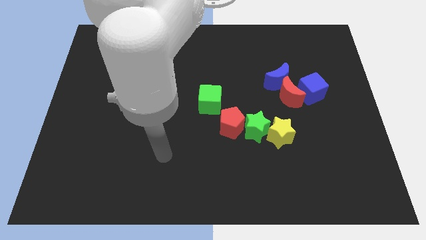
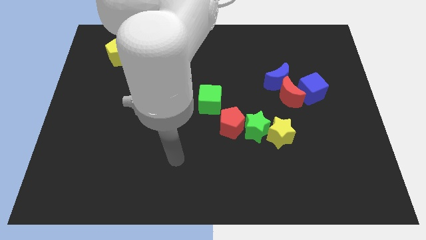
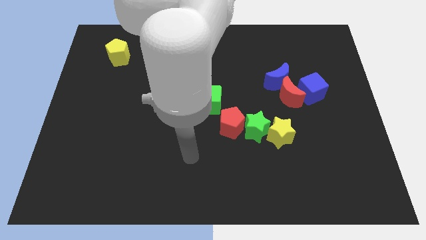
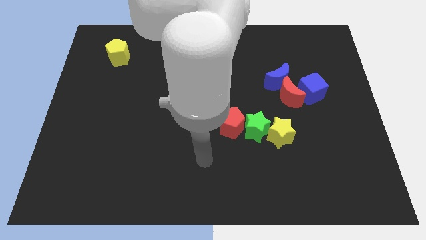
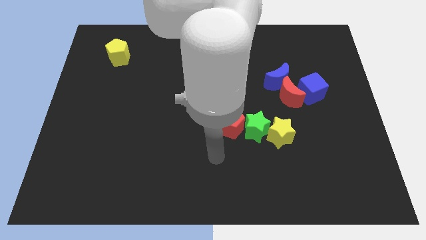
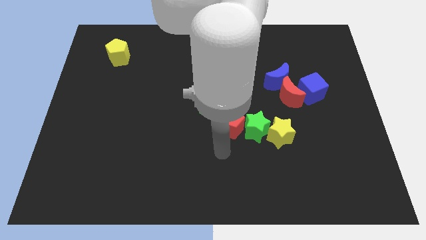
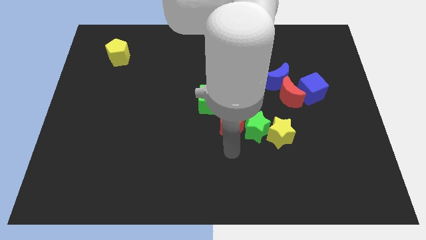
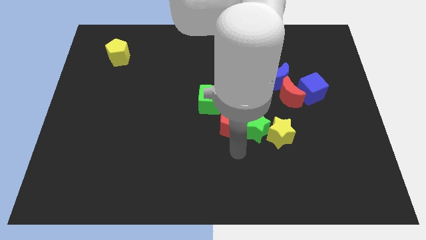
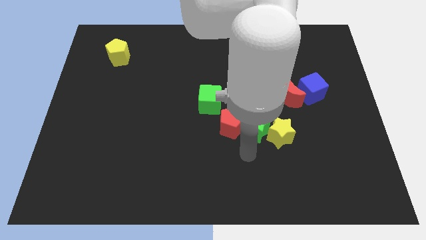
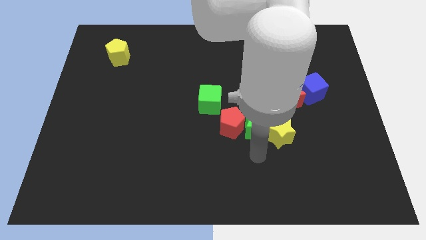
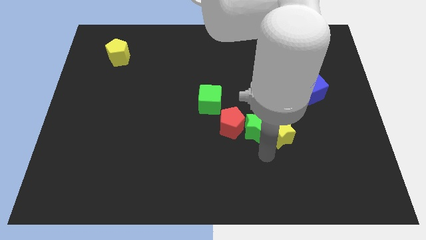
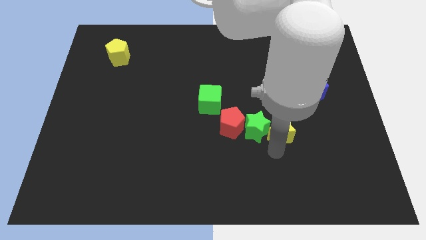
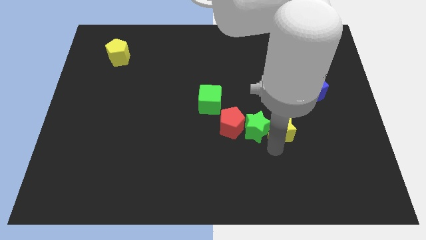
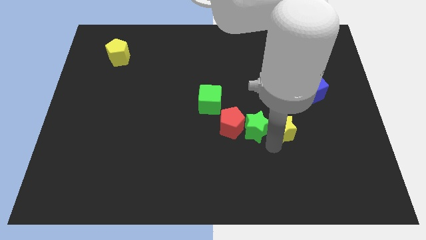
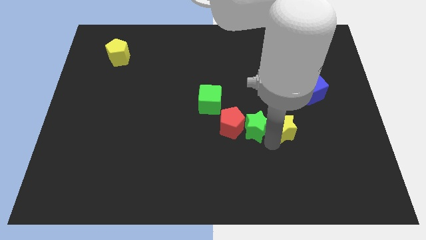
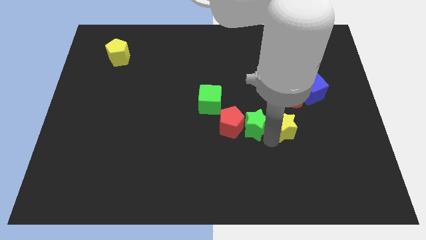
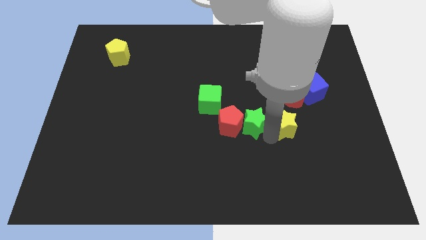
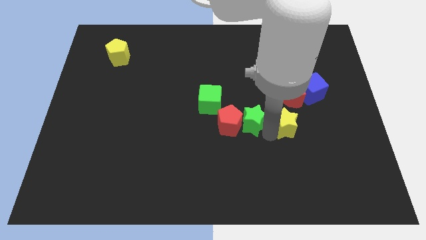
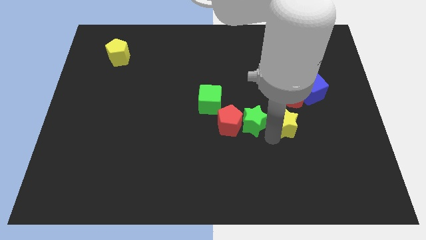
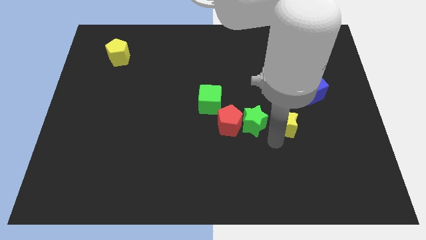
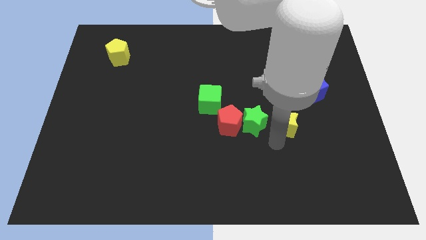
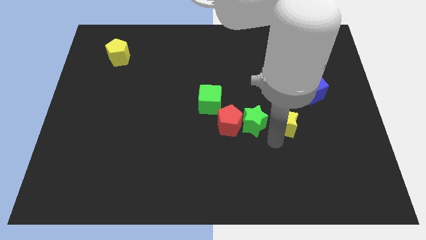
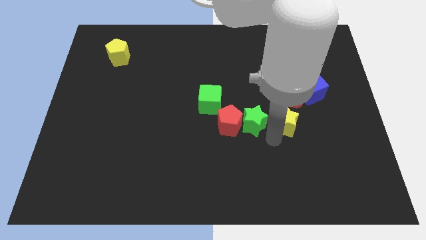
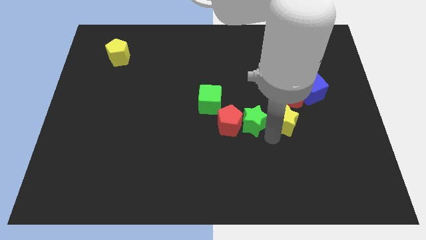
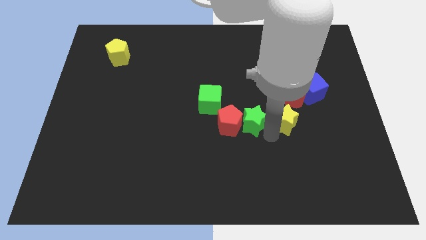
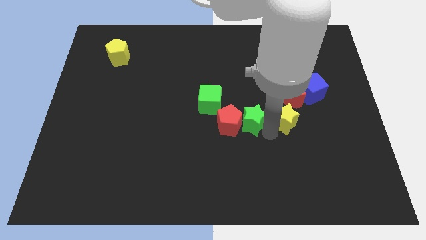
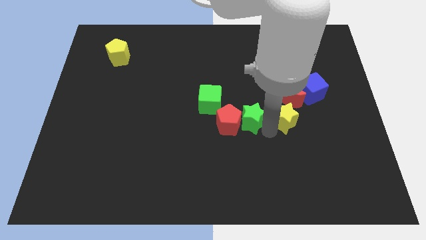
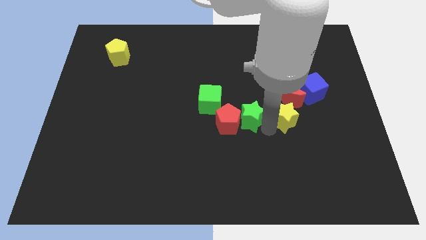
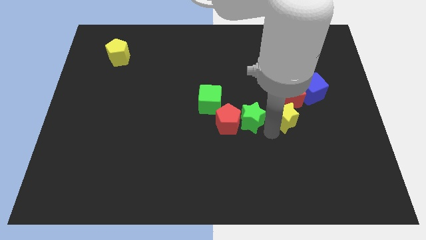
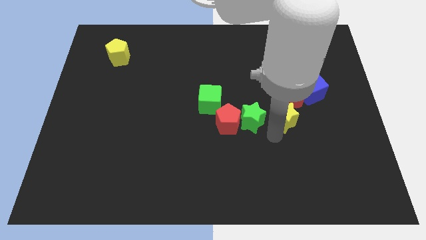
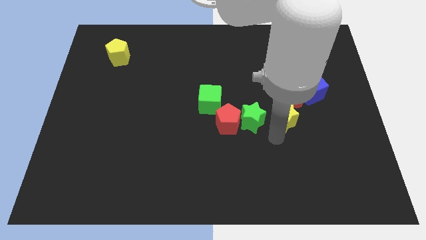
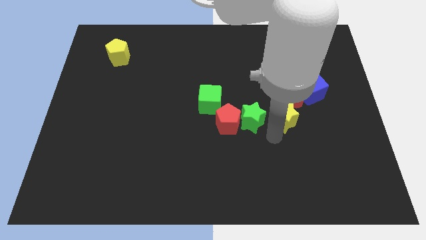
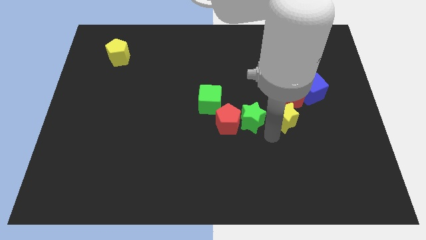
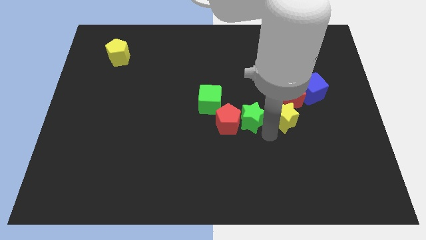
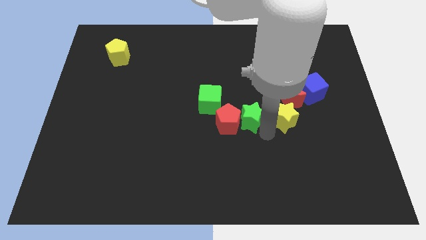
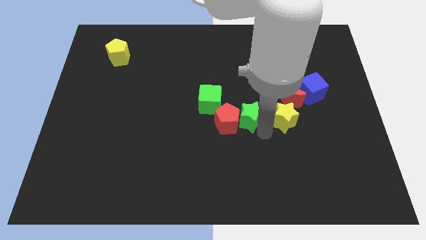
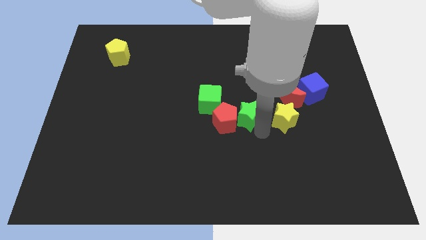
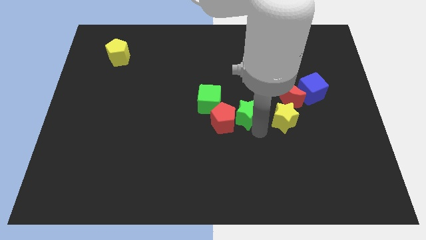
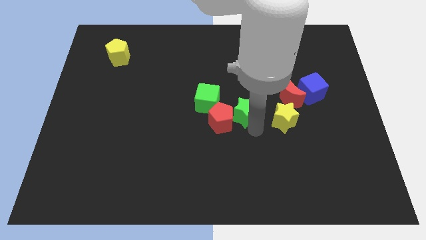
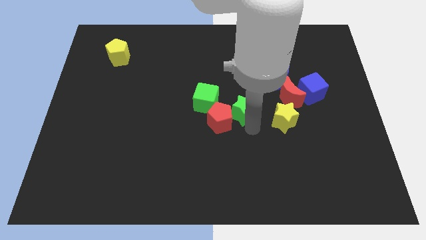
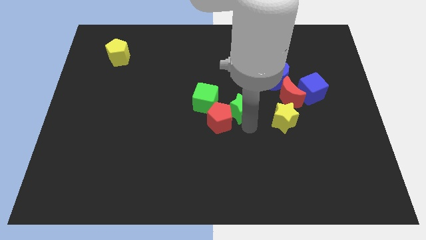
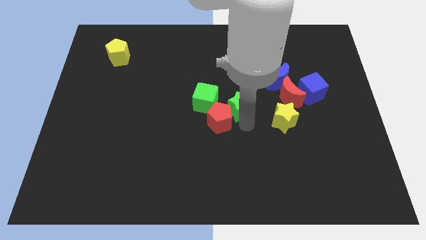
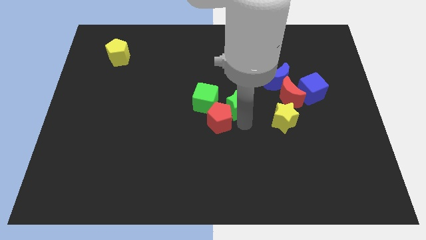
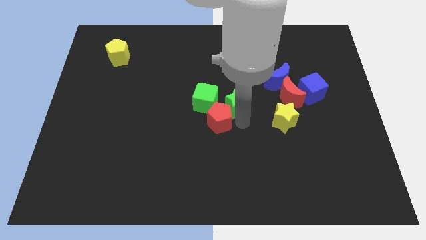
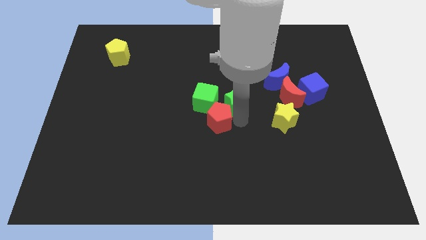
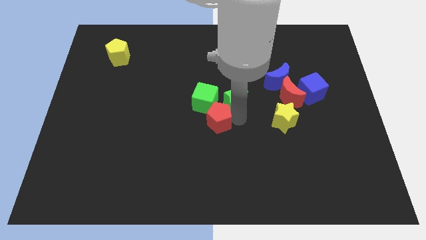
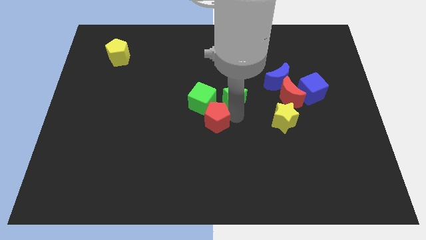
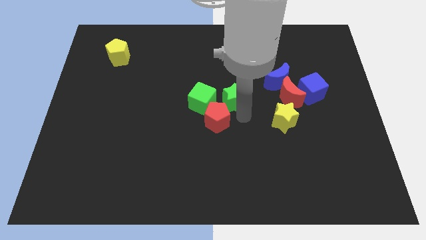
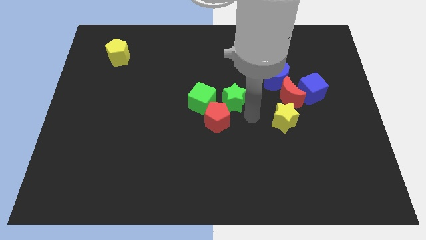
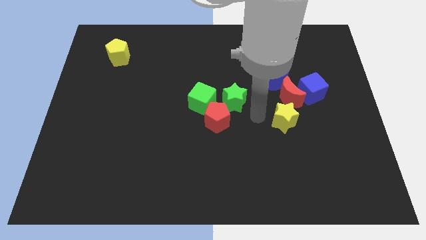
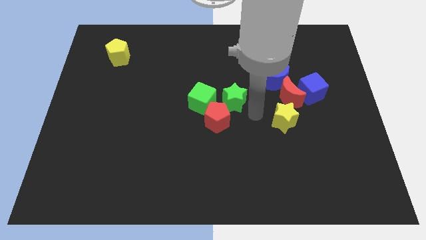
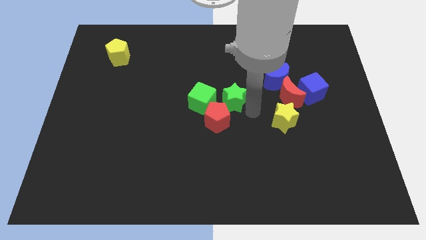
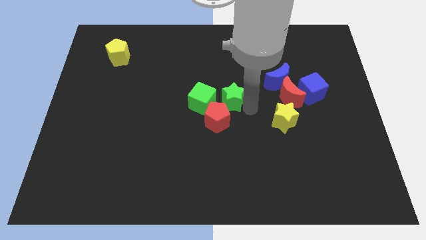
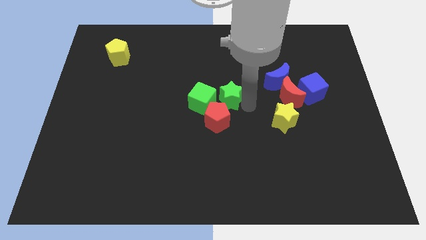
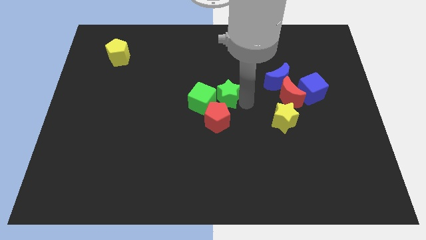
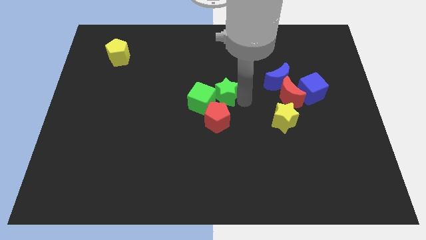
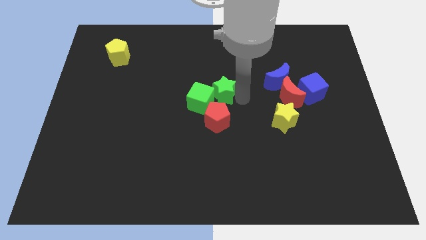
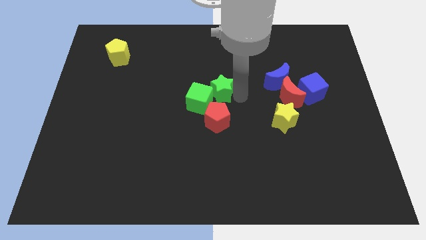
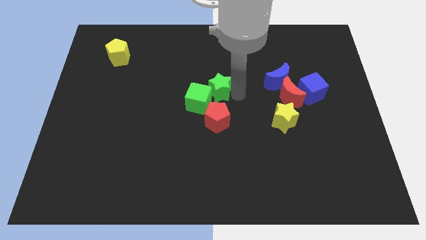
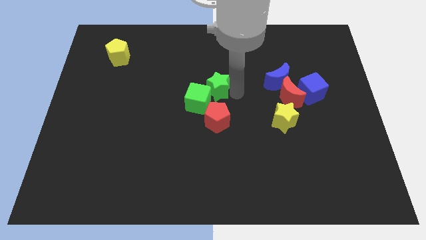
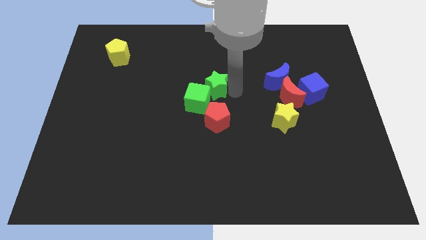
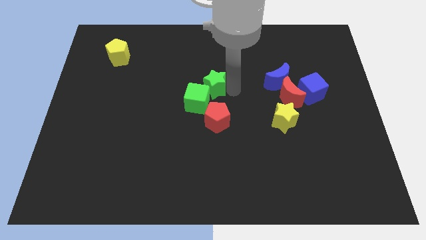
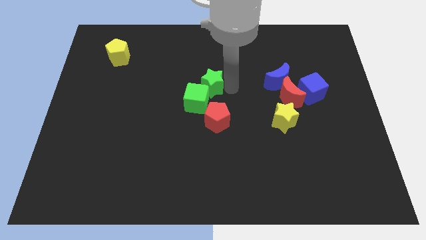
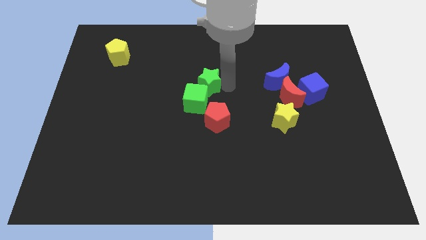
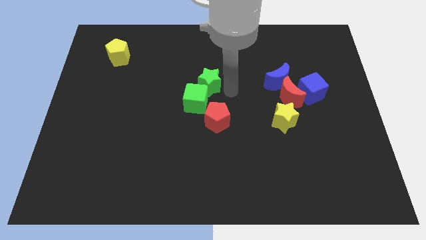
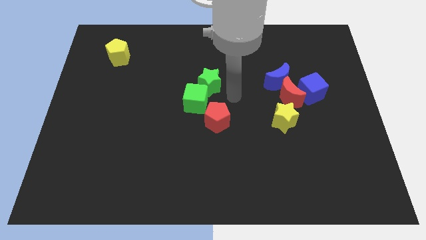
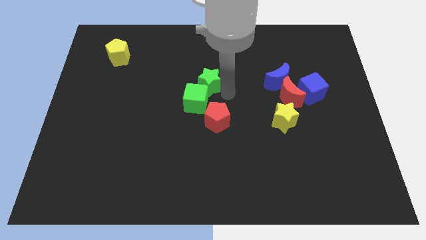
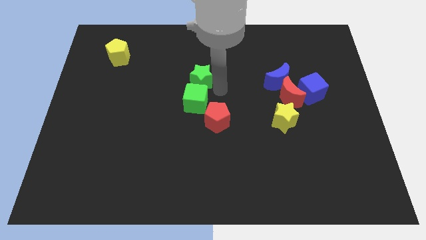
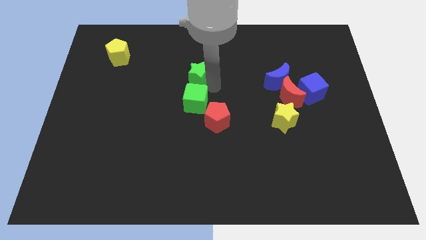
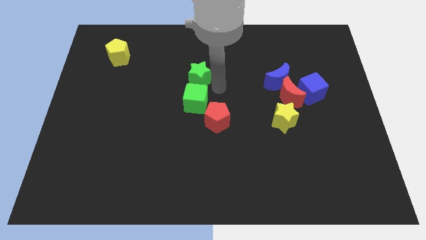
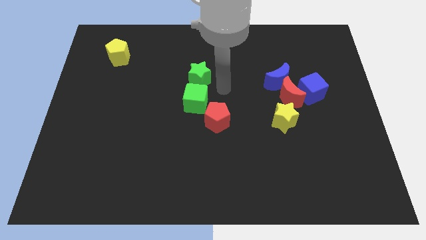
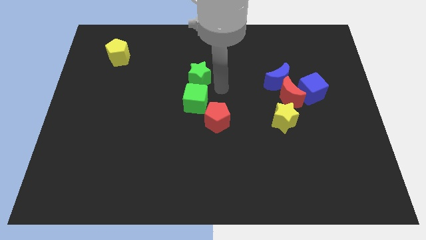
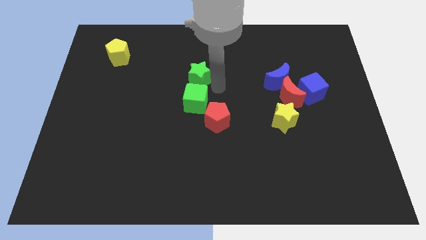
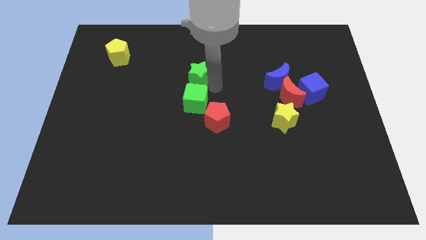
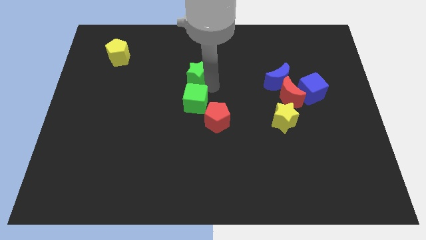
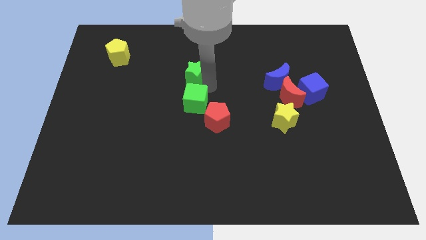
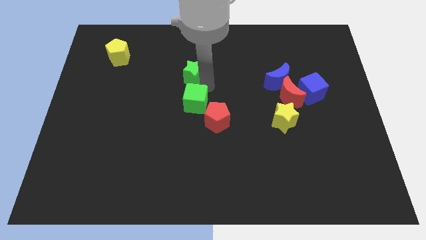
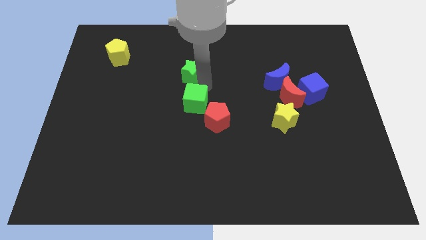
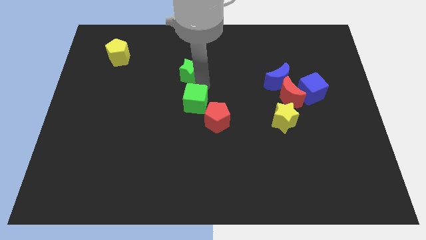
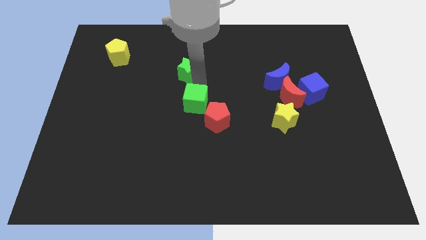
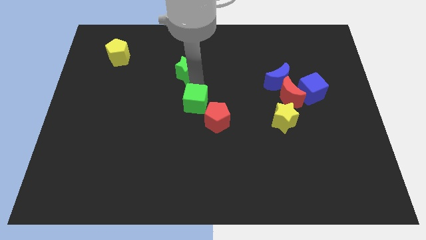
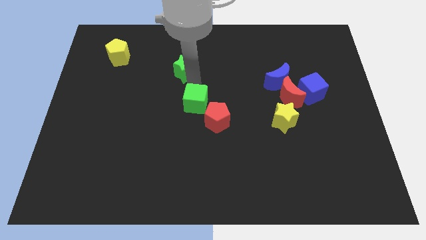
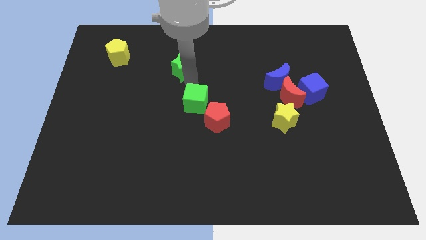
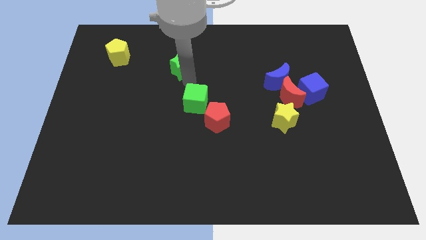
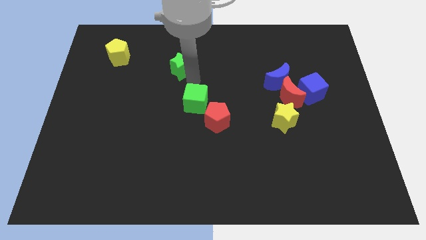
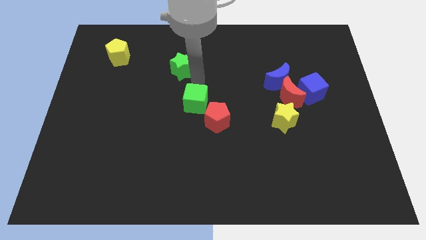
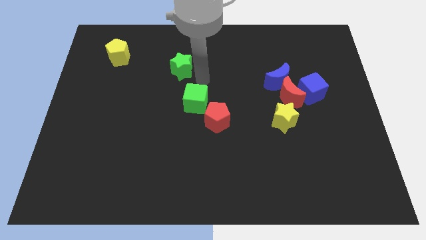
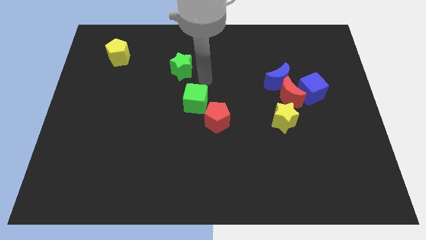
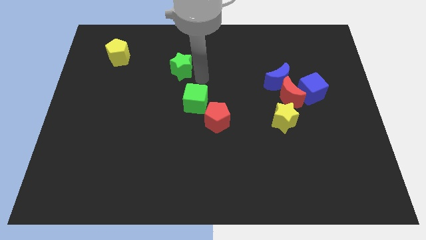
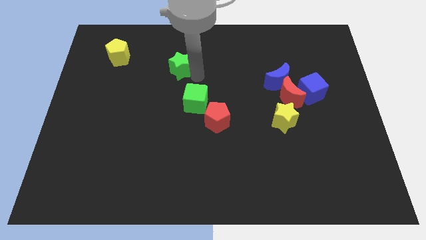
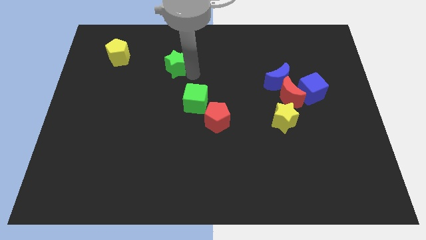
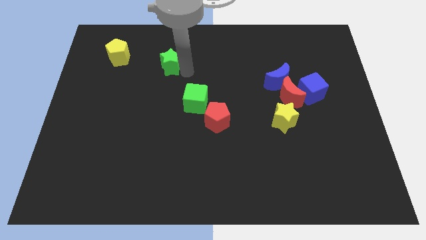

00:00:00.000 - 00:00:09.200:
slide the green star to the right side of the yellow pentagon
